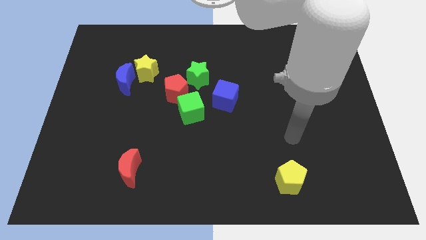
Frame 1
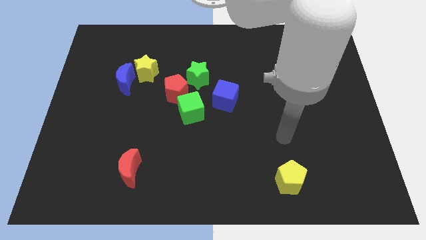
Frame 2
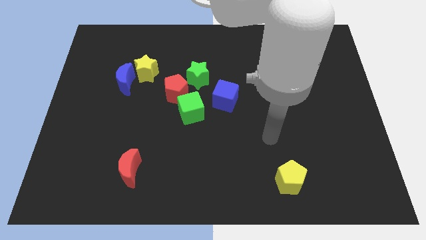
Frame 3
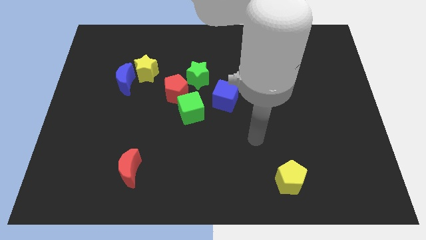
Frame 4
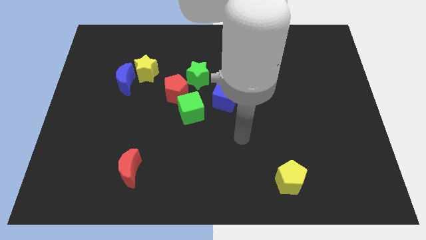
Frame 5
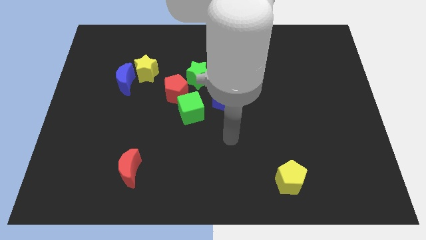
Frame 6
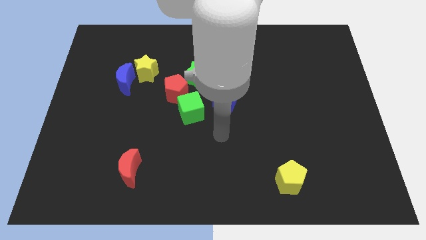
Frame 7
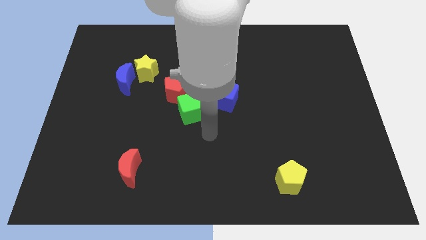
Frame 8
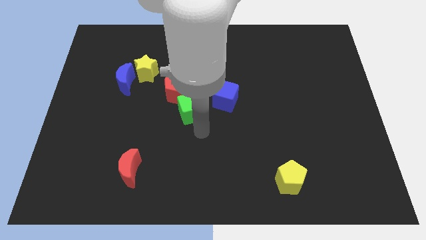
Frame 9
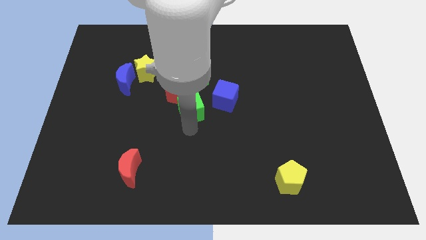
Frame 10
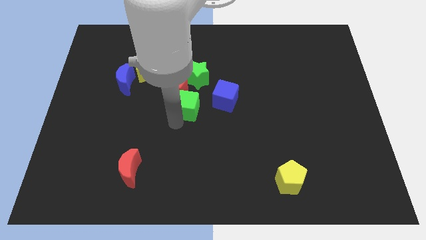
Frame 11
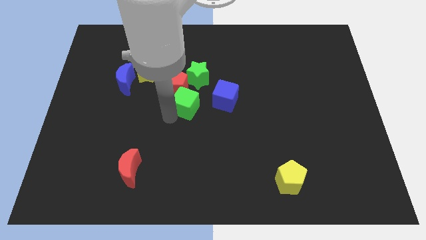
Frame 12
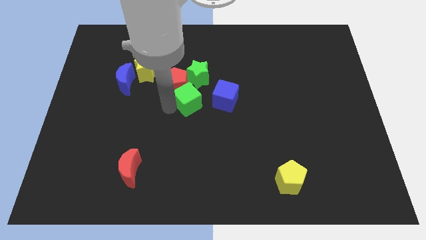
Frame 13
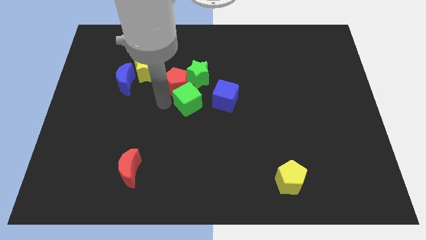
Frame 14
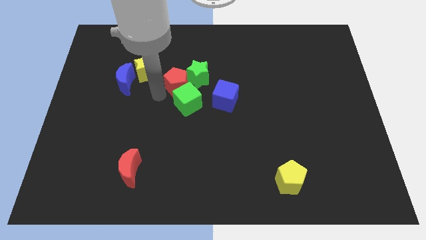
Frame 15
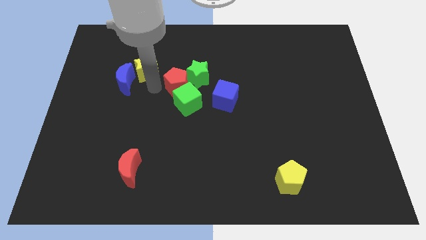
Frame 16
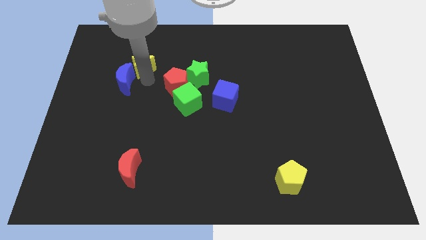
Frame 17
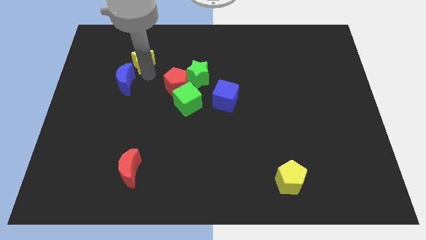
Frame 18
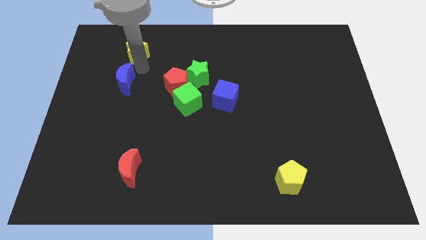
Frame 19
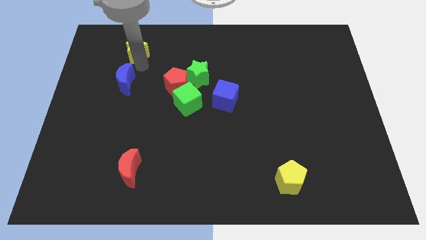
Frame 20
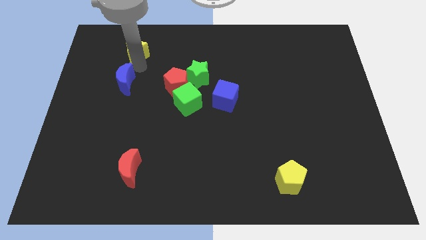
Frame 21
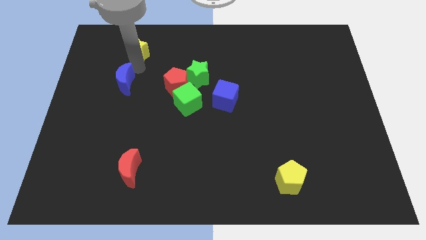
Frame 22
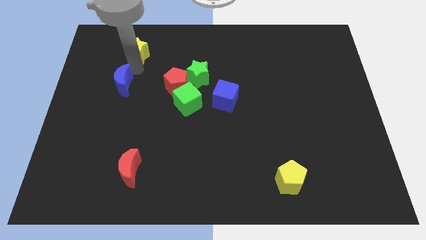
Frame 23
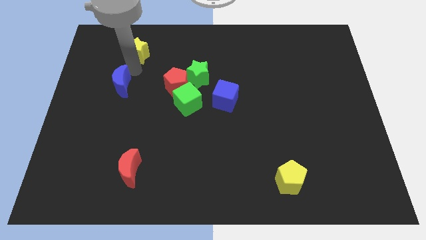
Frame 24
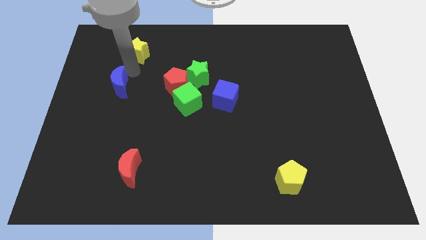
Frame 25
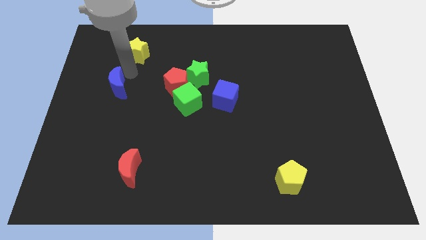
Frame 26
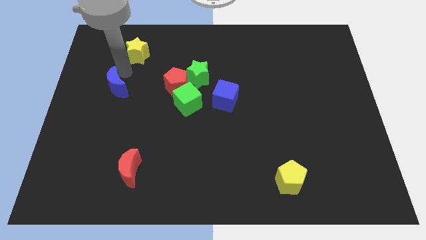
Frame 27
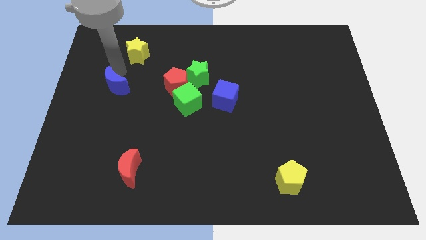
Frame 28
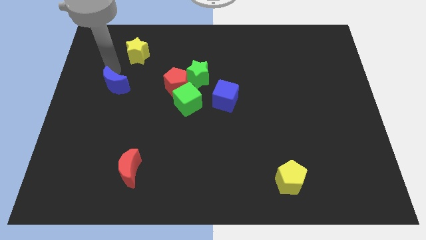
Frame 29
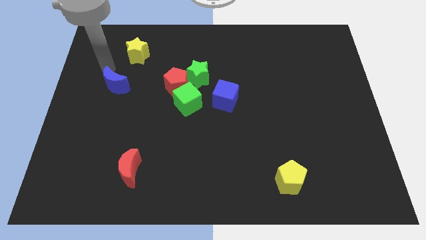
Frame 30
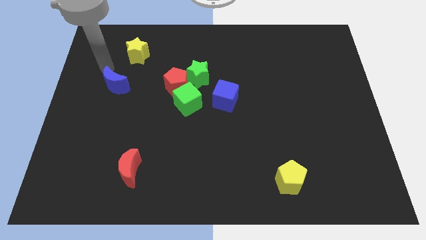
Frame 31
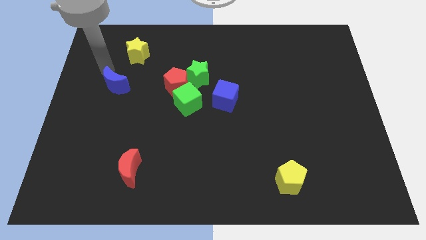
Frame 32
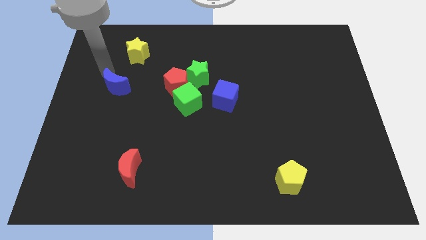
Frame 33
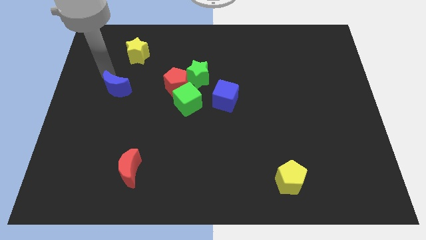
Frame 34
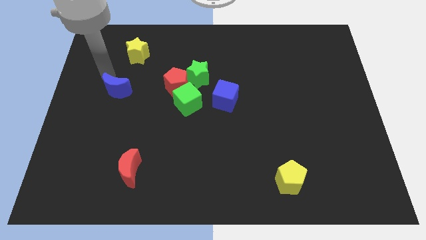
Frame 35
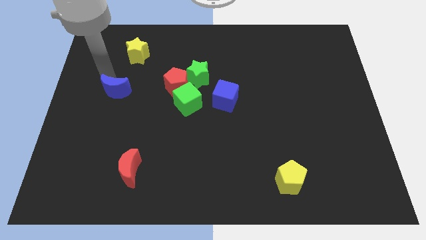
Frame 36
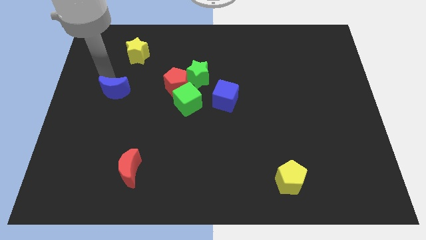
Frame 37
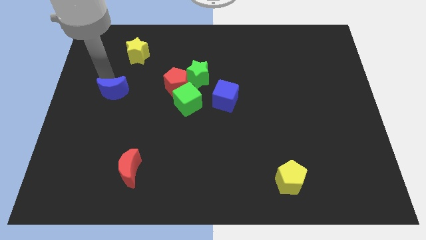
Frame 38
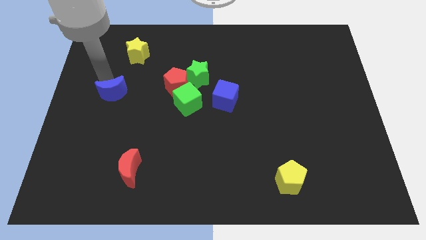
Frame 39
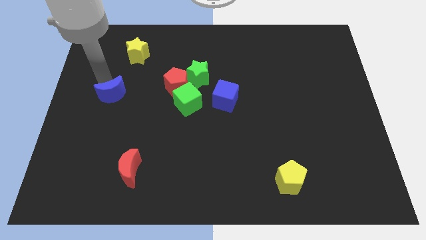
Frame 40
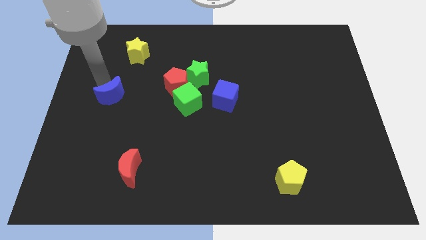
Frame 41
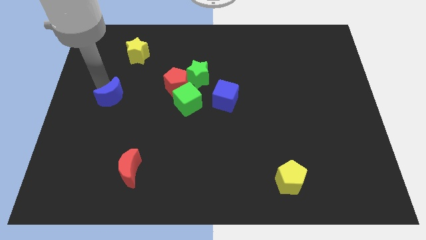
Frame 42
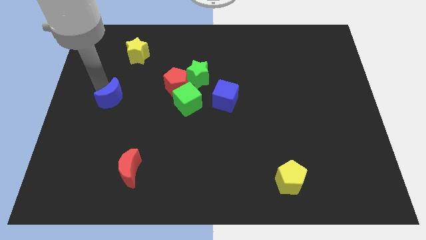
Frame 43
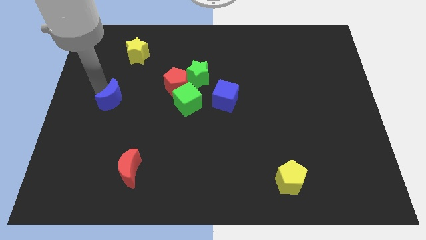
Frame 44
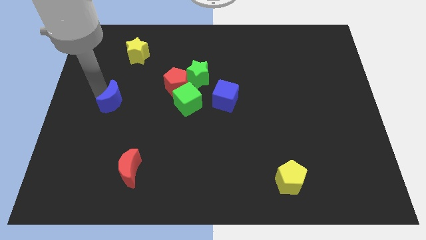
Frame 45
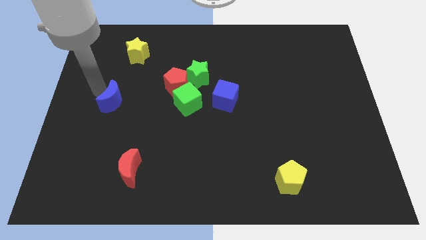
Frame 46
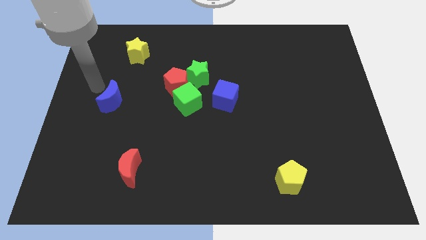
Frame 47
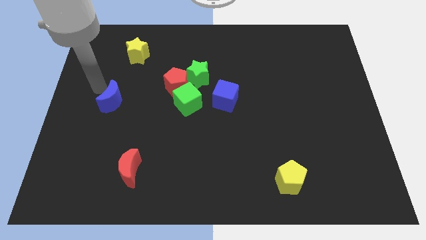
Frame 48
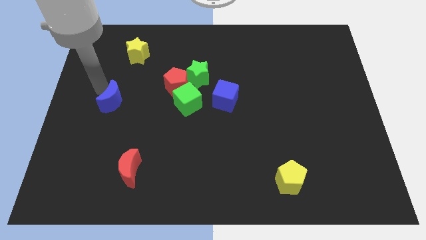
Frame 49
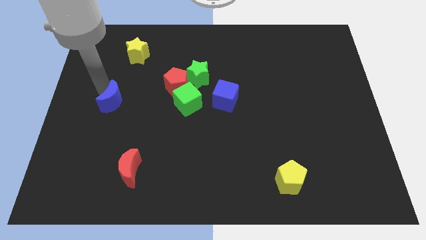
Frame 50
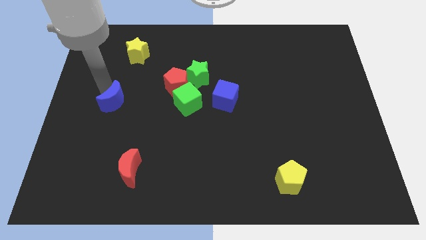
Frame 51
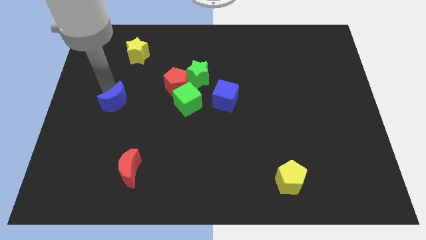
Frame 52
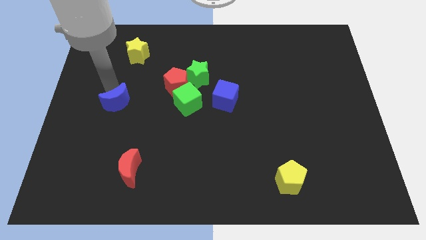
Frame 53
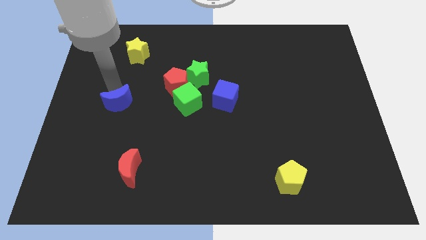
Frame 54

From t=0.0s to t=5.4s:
slightly move the blue moon downwards

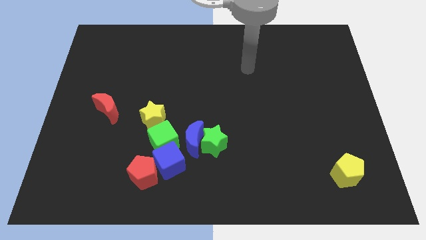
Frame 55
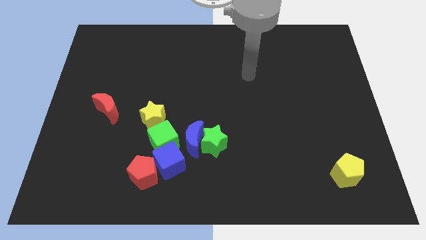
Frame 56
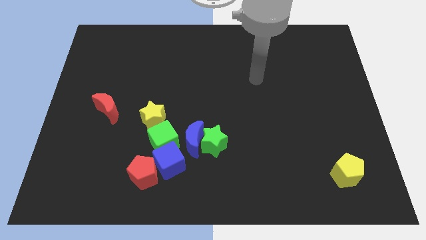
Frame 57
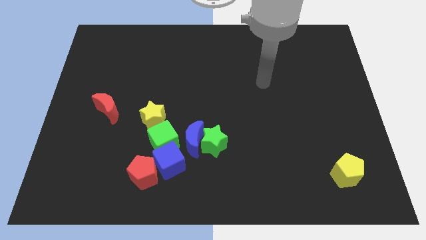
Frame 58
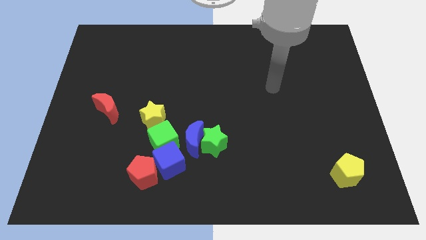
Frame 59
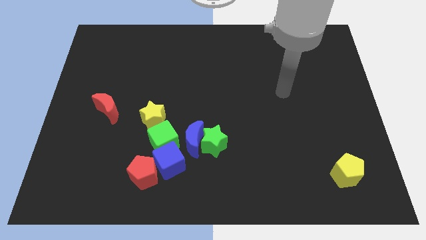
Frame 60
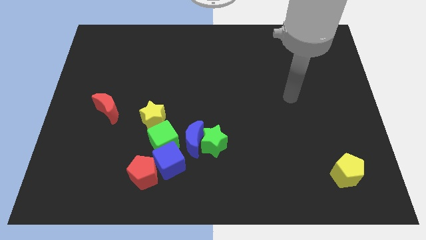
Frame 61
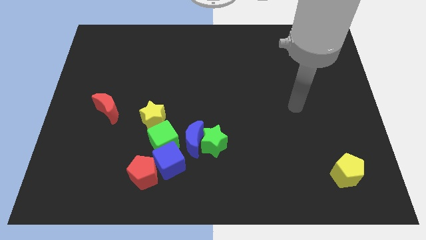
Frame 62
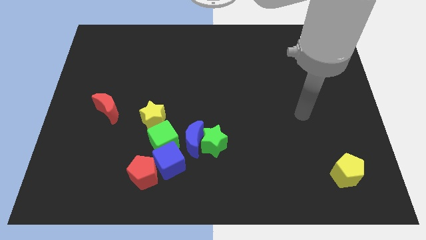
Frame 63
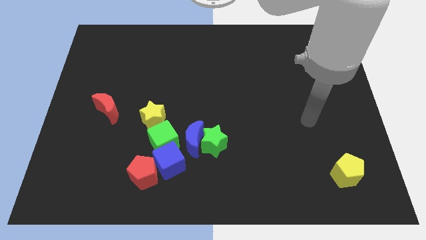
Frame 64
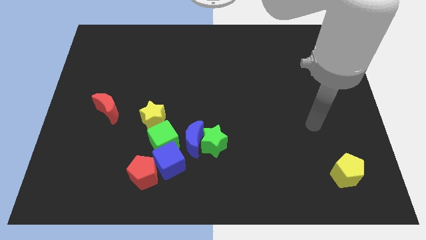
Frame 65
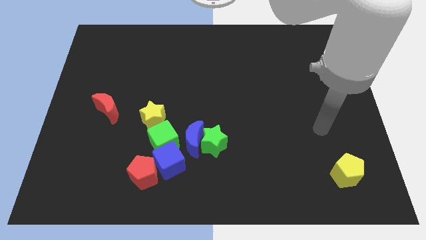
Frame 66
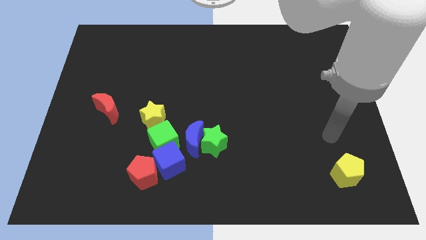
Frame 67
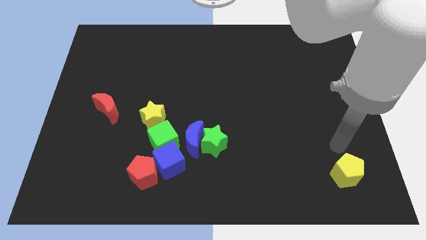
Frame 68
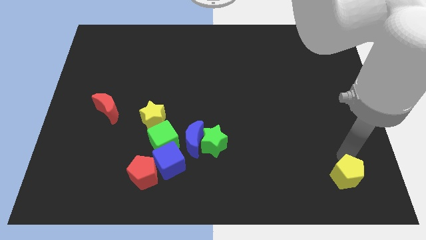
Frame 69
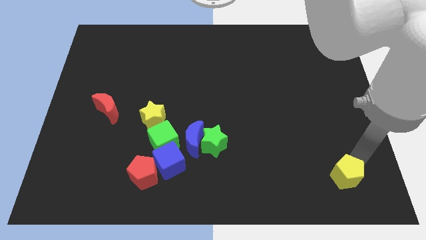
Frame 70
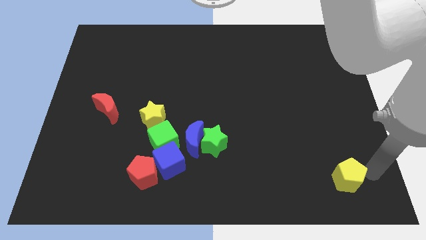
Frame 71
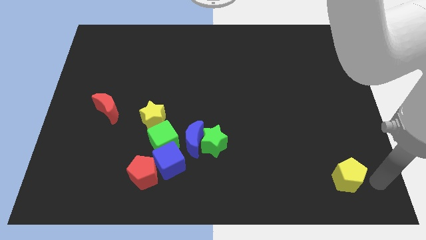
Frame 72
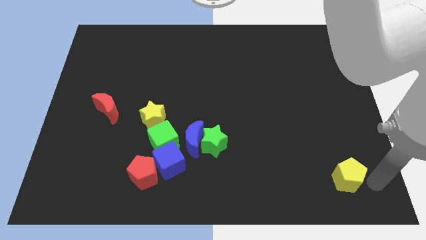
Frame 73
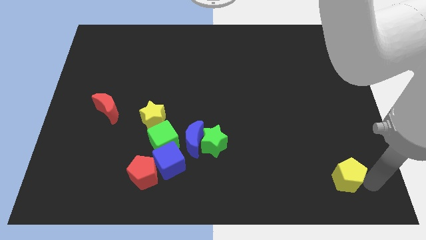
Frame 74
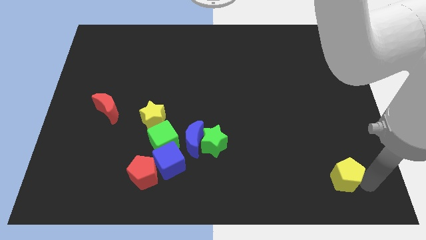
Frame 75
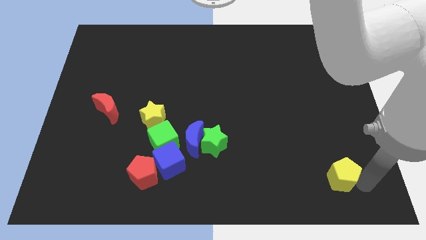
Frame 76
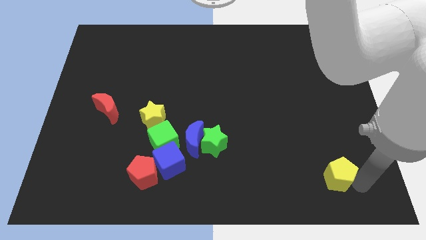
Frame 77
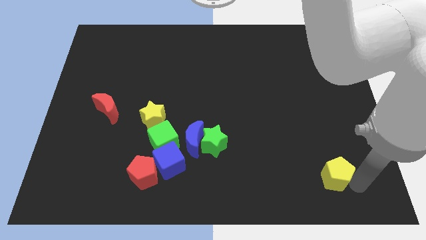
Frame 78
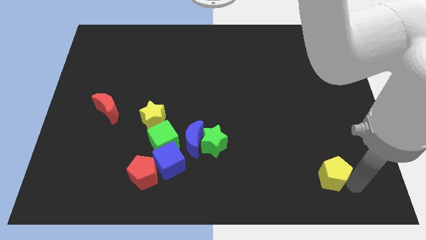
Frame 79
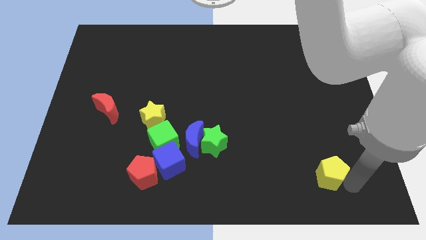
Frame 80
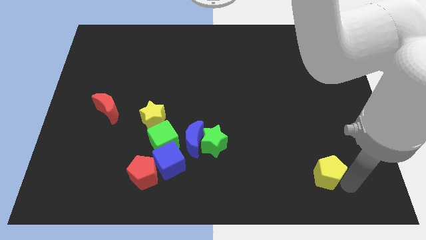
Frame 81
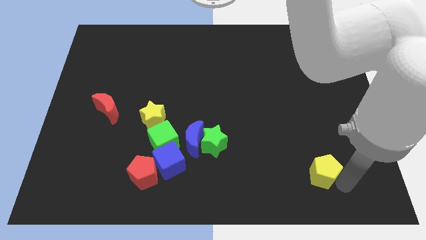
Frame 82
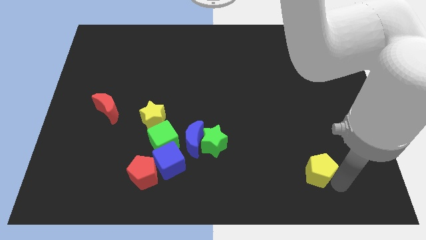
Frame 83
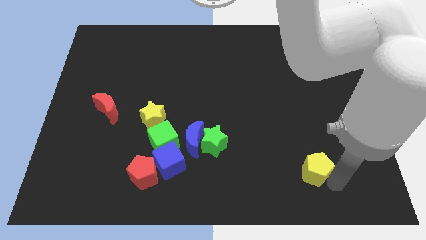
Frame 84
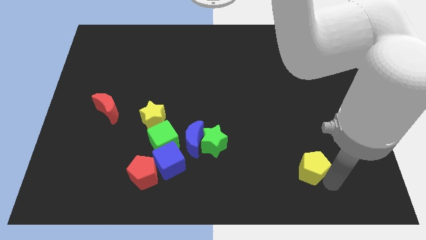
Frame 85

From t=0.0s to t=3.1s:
move the yellow pentagon a little to the left
